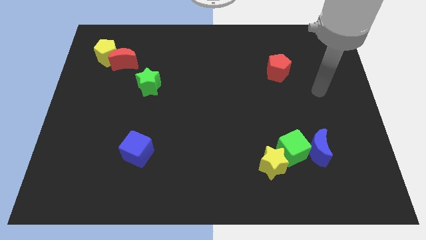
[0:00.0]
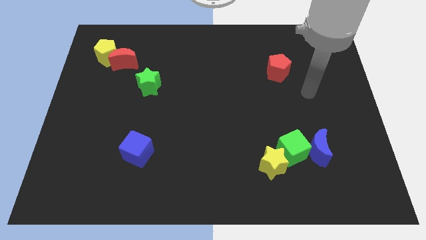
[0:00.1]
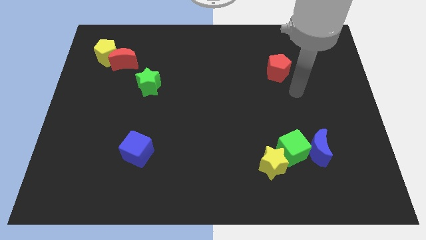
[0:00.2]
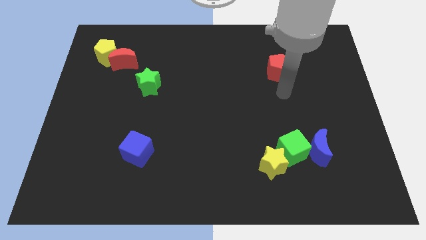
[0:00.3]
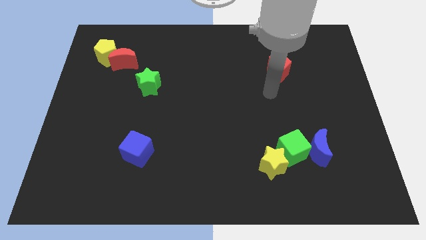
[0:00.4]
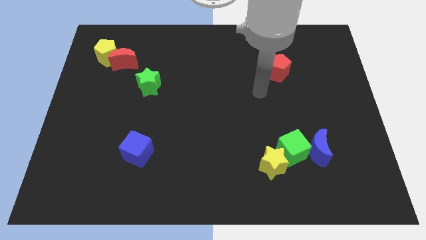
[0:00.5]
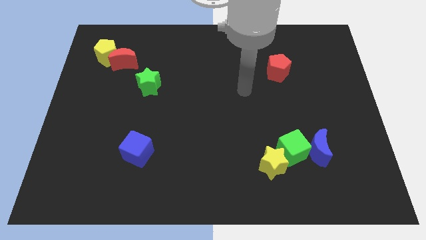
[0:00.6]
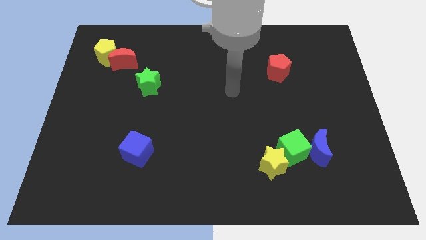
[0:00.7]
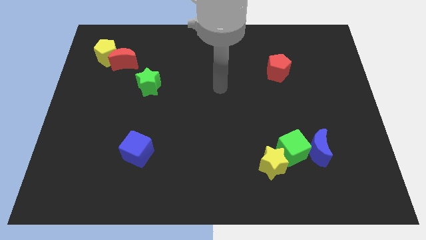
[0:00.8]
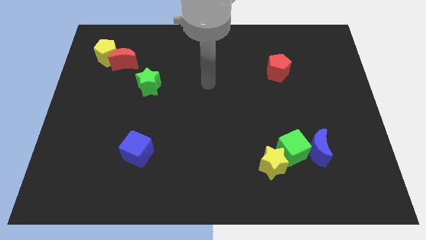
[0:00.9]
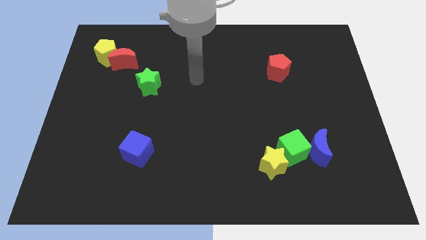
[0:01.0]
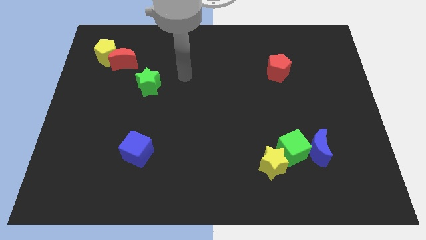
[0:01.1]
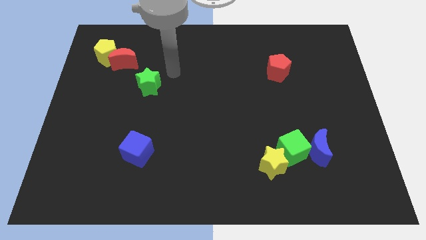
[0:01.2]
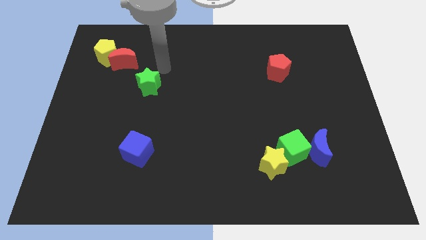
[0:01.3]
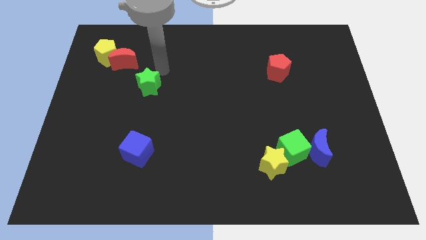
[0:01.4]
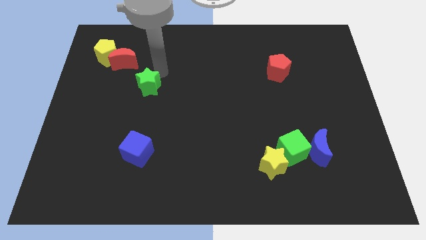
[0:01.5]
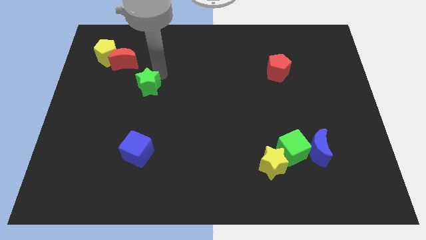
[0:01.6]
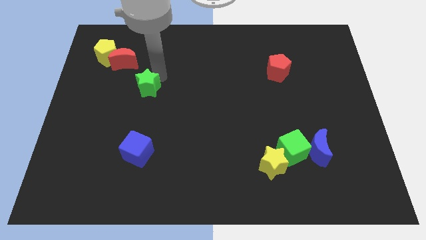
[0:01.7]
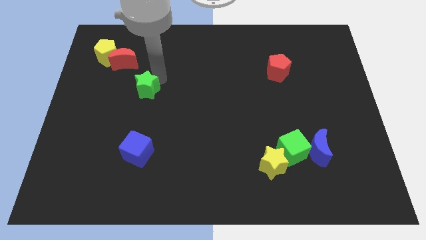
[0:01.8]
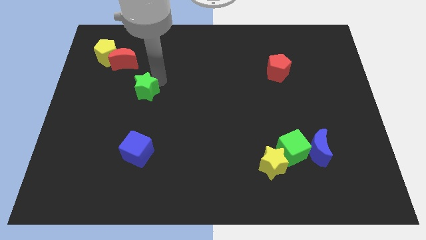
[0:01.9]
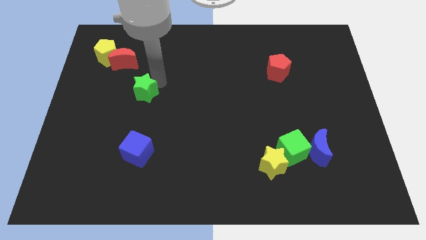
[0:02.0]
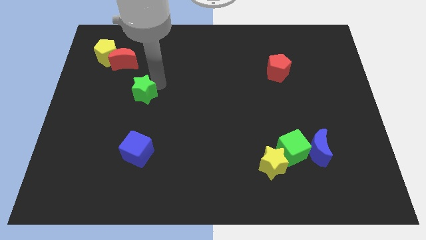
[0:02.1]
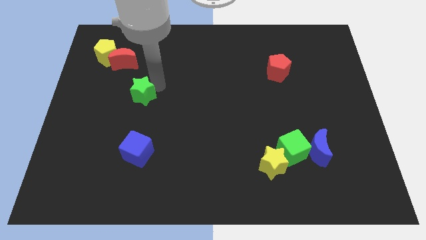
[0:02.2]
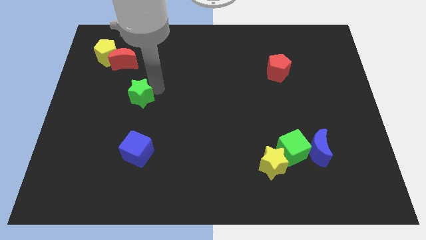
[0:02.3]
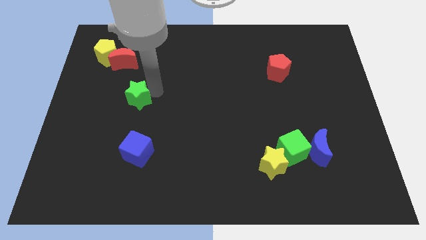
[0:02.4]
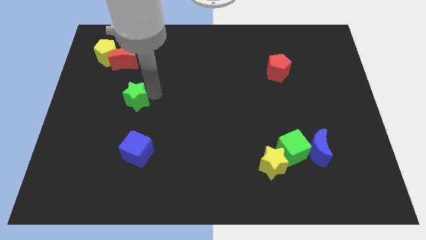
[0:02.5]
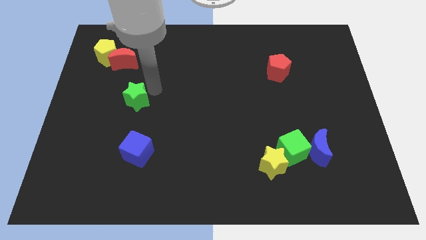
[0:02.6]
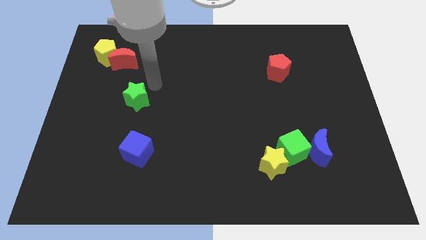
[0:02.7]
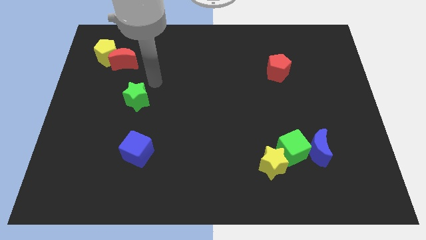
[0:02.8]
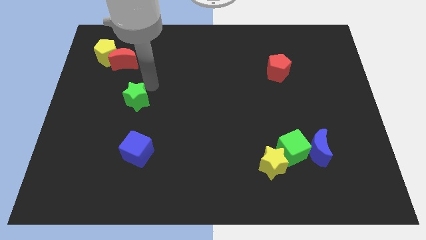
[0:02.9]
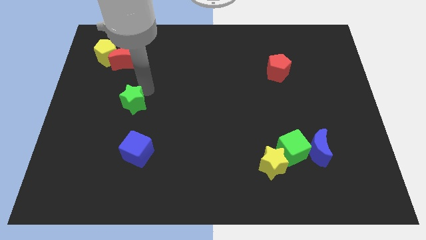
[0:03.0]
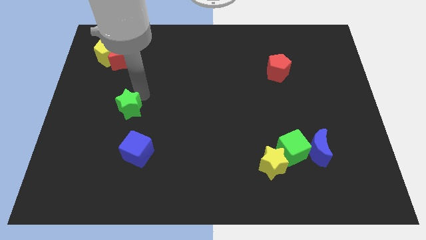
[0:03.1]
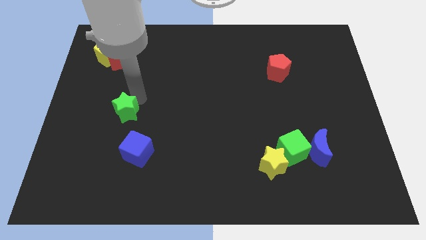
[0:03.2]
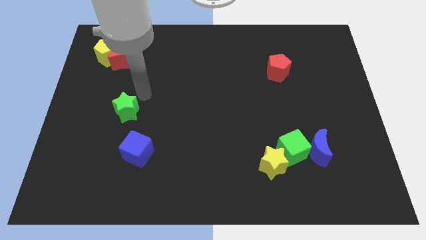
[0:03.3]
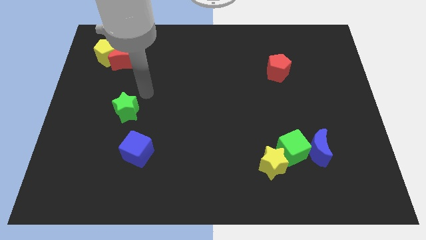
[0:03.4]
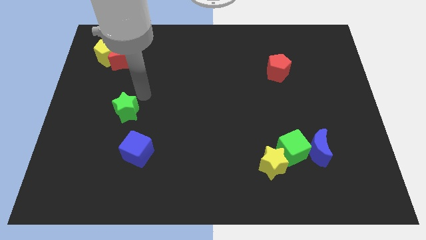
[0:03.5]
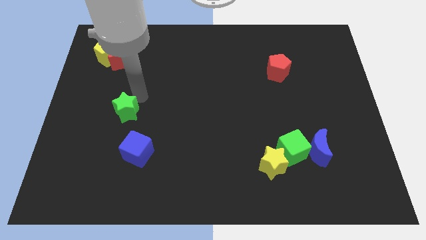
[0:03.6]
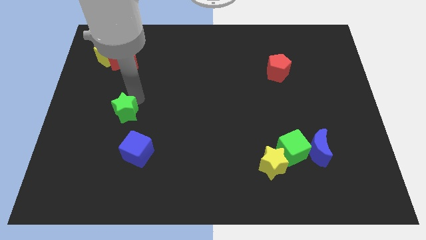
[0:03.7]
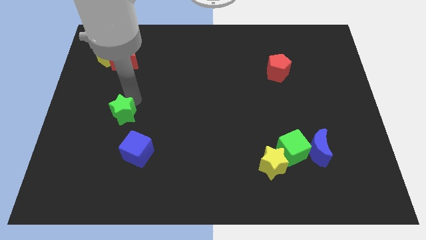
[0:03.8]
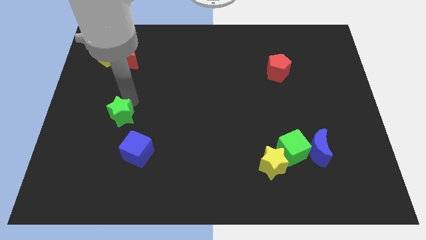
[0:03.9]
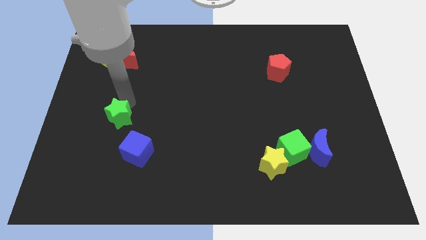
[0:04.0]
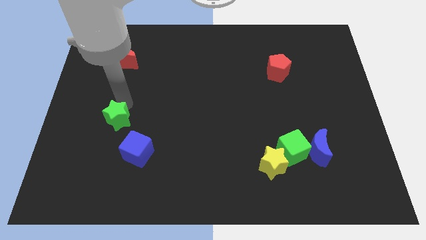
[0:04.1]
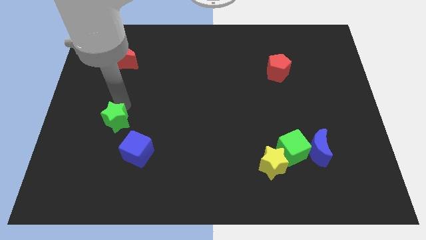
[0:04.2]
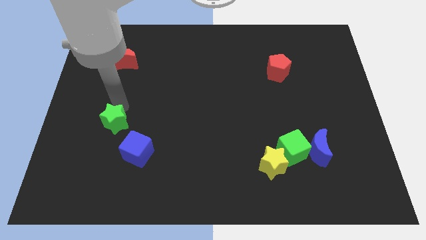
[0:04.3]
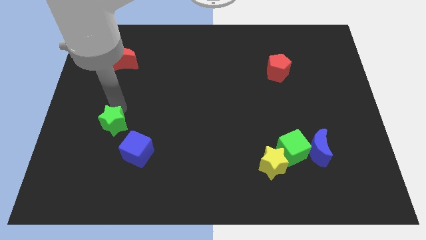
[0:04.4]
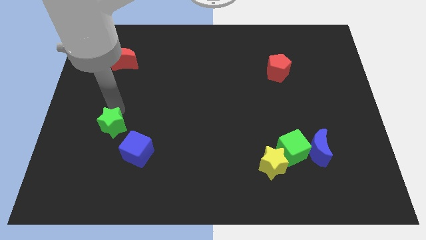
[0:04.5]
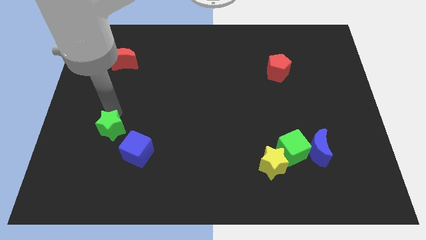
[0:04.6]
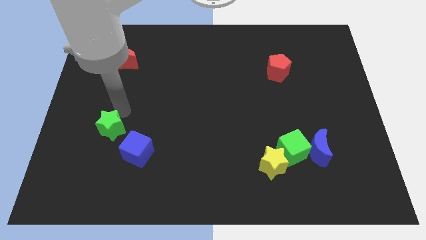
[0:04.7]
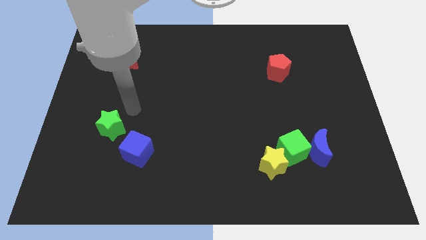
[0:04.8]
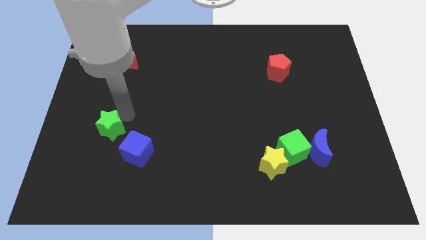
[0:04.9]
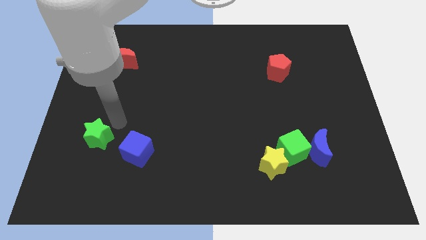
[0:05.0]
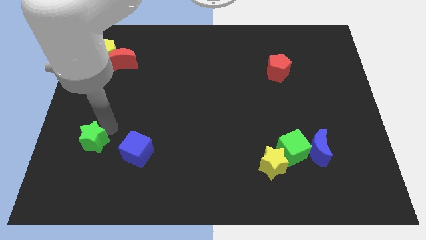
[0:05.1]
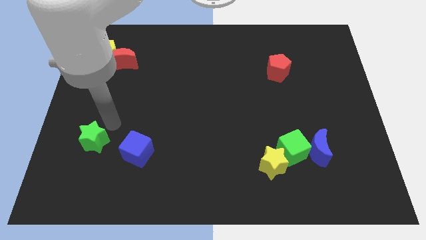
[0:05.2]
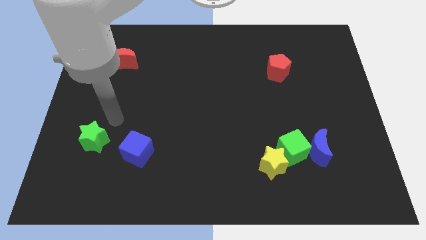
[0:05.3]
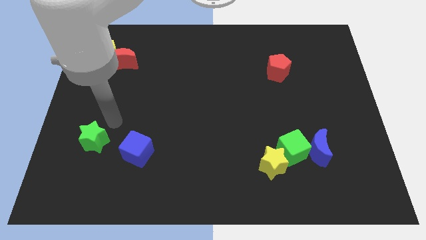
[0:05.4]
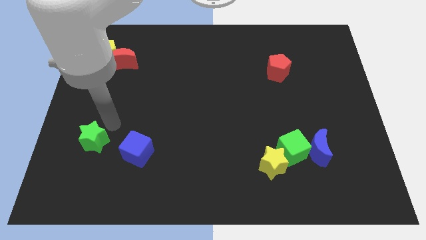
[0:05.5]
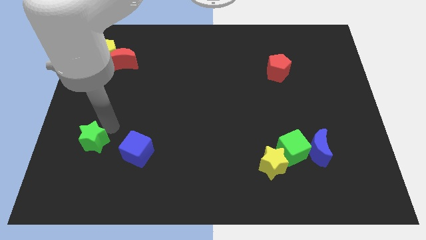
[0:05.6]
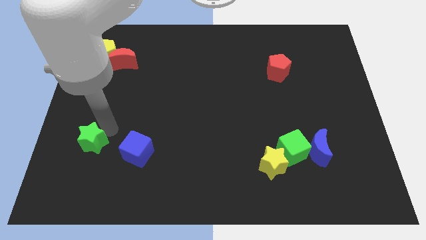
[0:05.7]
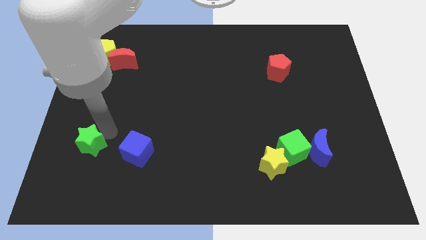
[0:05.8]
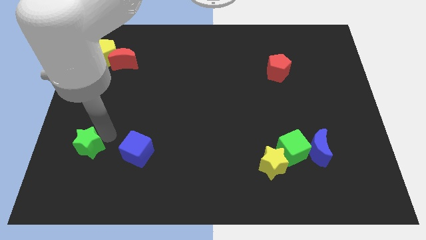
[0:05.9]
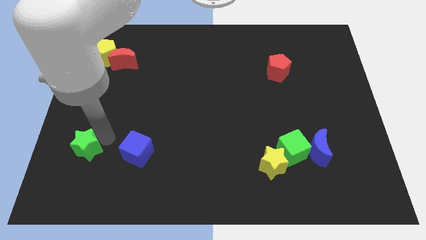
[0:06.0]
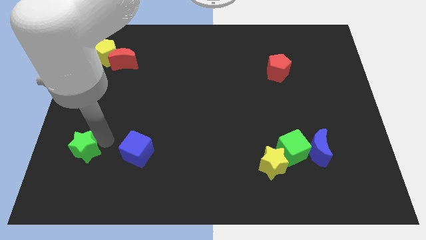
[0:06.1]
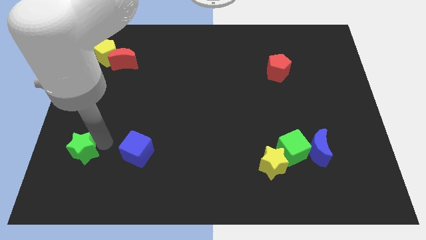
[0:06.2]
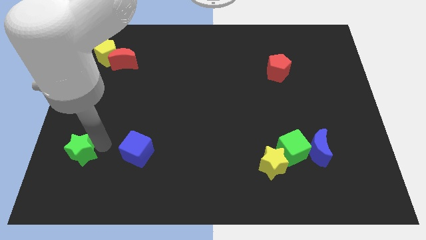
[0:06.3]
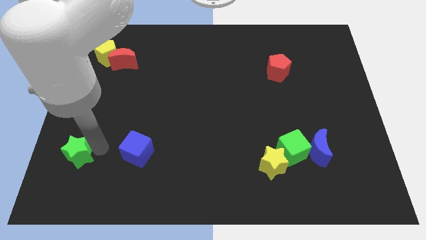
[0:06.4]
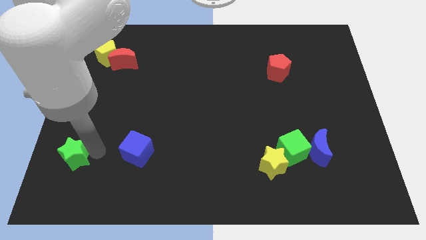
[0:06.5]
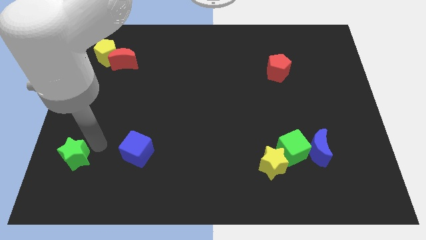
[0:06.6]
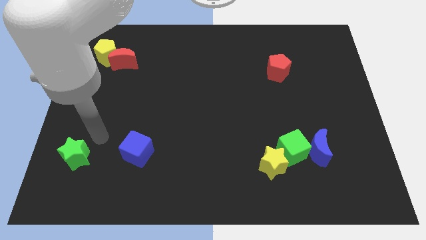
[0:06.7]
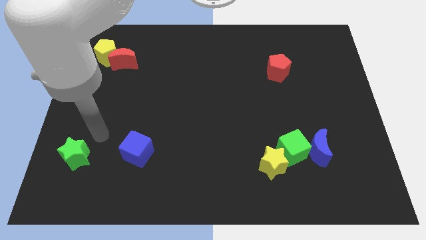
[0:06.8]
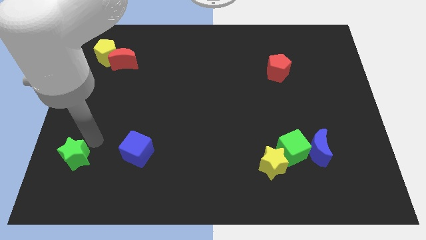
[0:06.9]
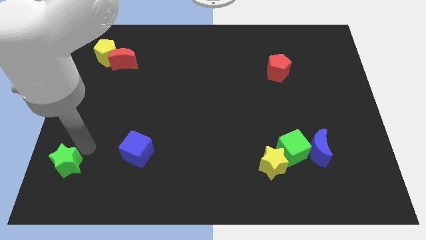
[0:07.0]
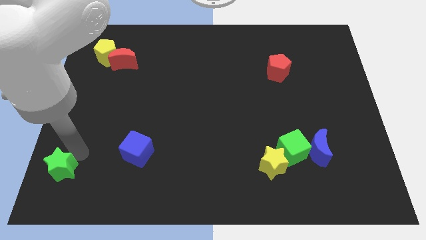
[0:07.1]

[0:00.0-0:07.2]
put the green star to the bottom left of the board
